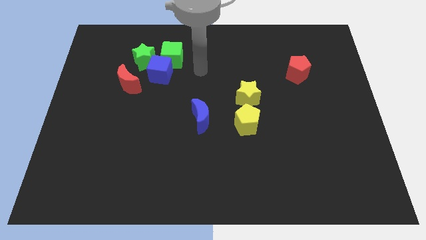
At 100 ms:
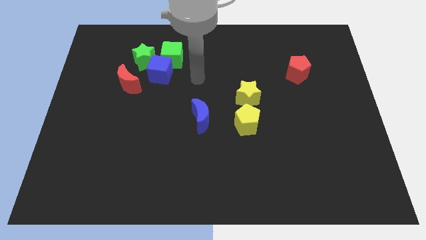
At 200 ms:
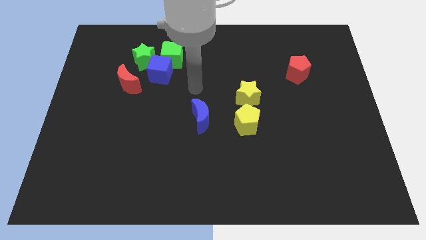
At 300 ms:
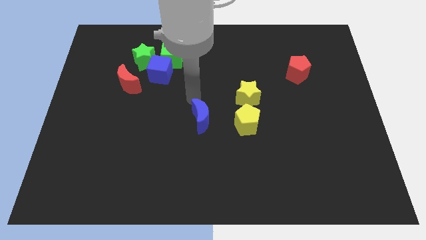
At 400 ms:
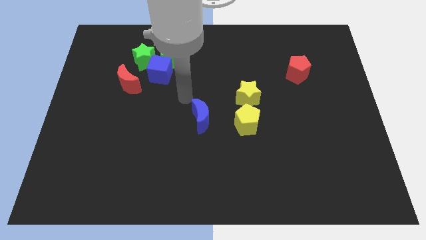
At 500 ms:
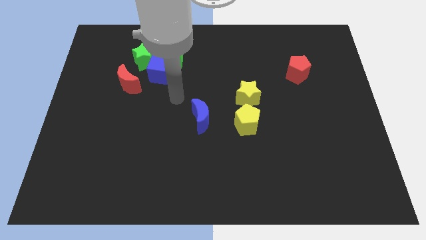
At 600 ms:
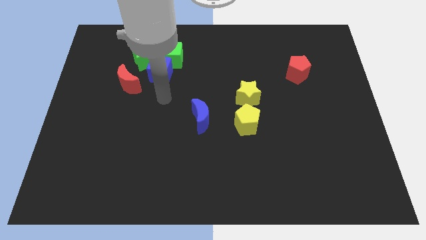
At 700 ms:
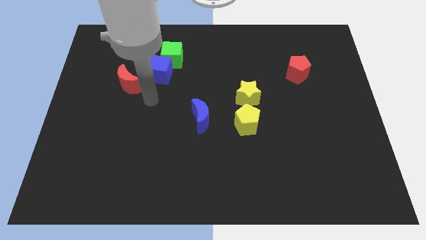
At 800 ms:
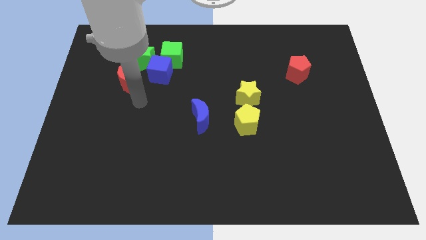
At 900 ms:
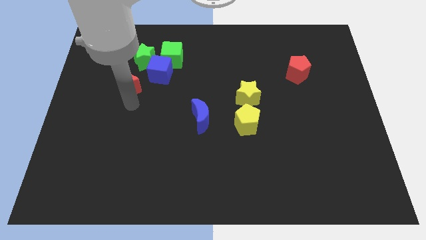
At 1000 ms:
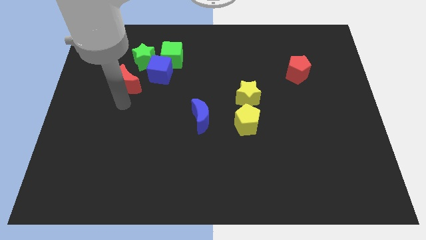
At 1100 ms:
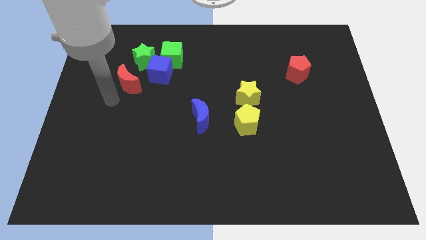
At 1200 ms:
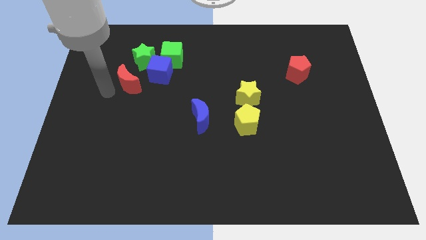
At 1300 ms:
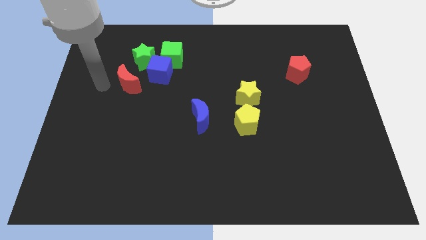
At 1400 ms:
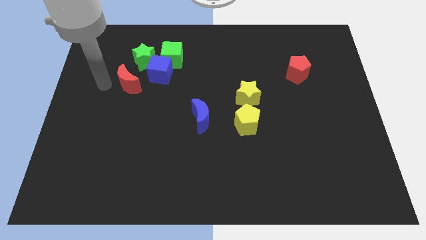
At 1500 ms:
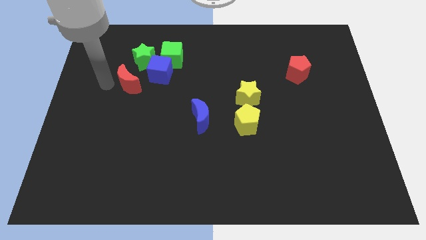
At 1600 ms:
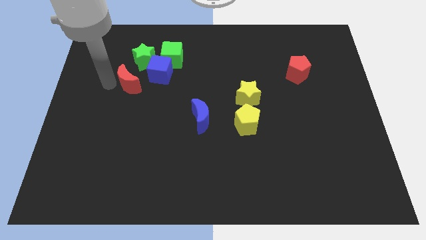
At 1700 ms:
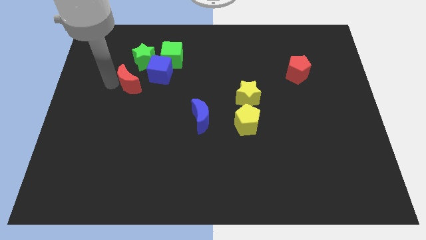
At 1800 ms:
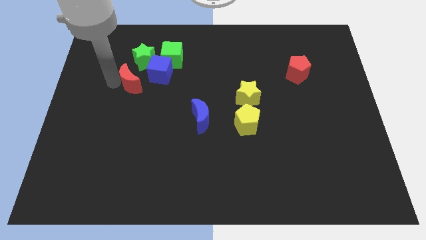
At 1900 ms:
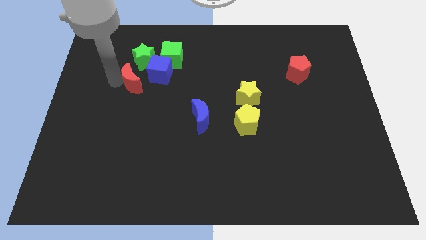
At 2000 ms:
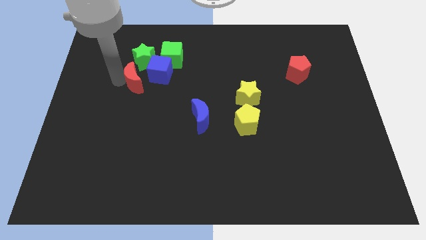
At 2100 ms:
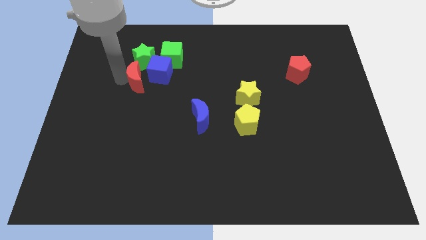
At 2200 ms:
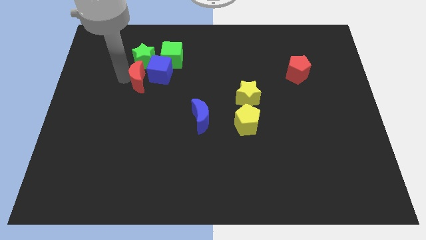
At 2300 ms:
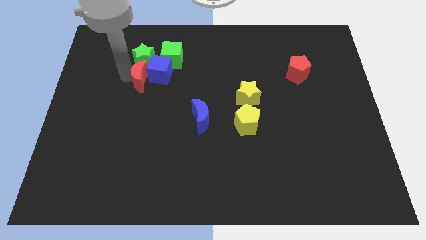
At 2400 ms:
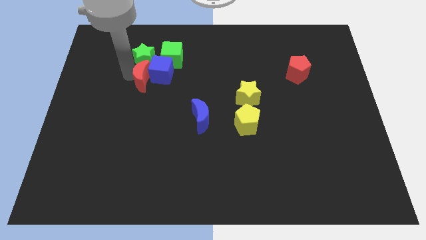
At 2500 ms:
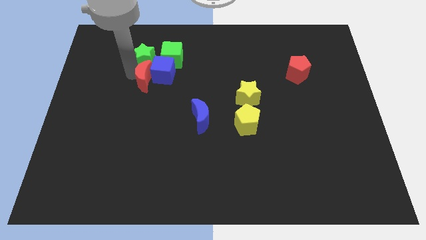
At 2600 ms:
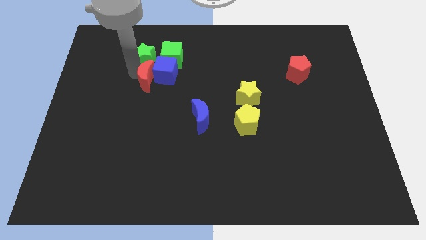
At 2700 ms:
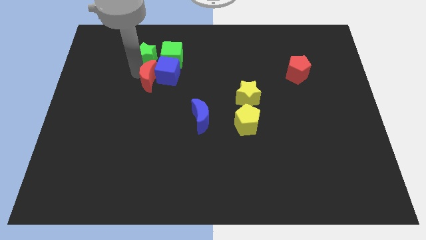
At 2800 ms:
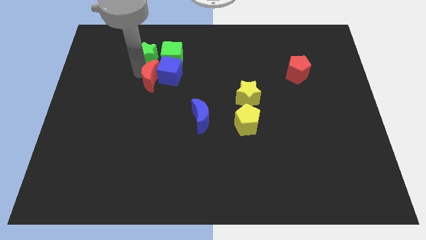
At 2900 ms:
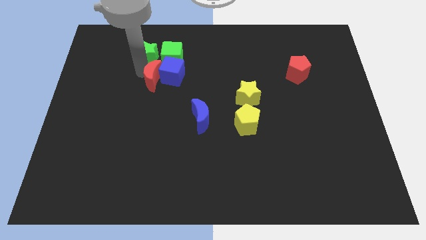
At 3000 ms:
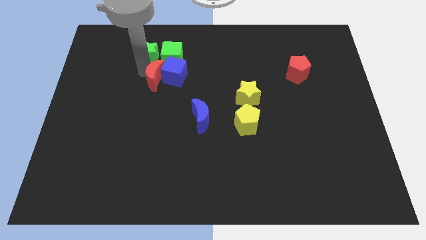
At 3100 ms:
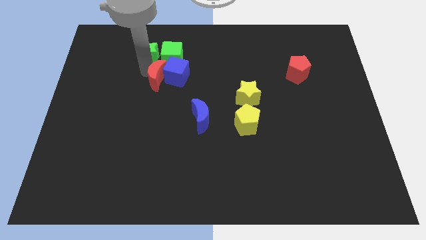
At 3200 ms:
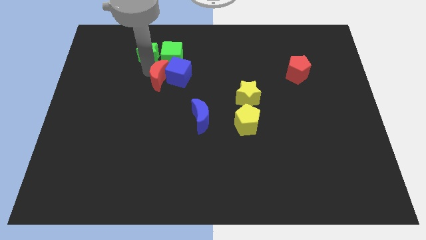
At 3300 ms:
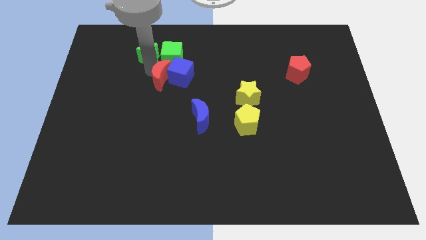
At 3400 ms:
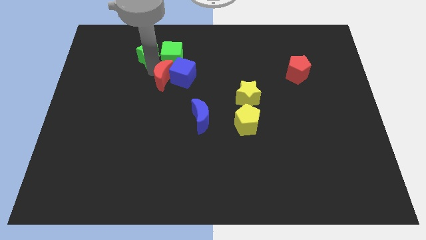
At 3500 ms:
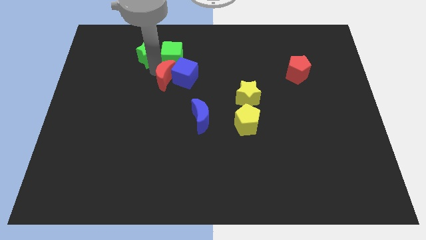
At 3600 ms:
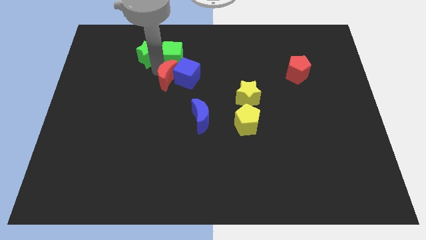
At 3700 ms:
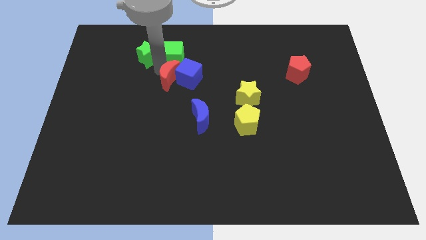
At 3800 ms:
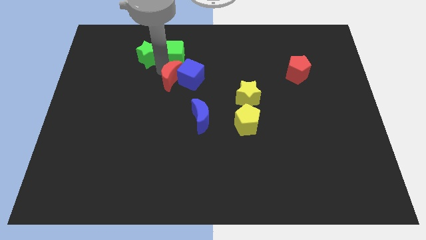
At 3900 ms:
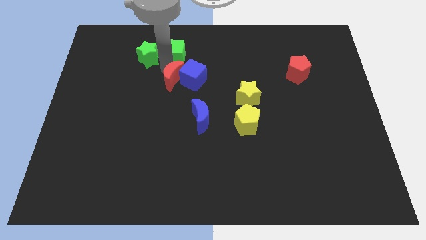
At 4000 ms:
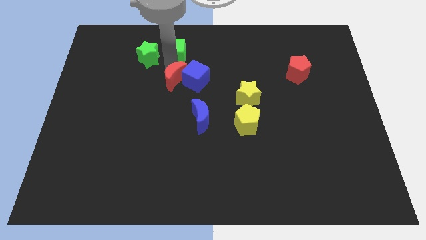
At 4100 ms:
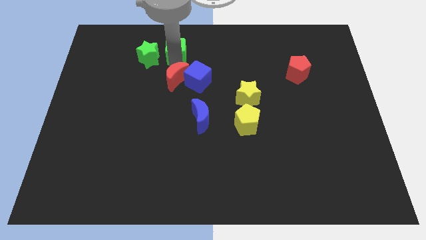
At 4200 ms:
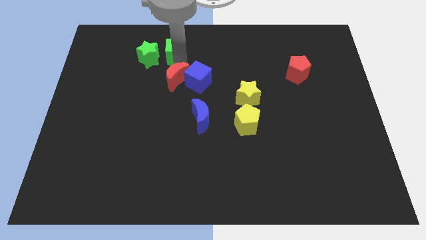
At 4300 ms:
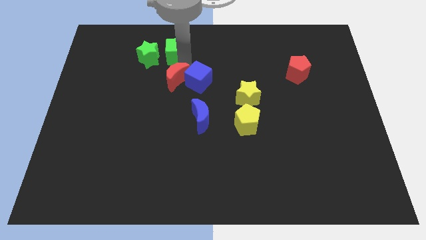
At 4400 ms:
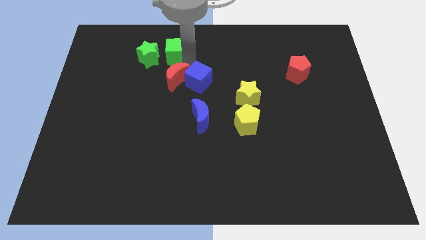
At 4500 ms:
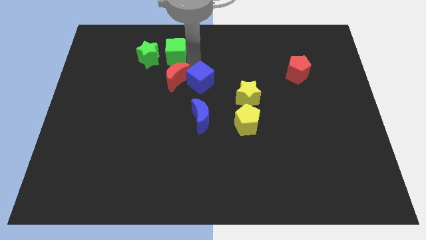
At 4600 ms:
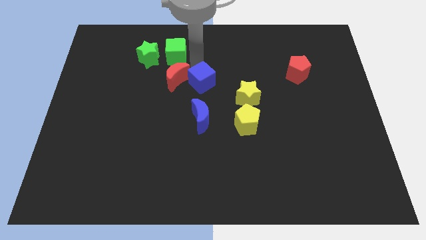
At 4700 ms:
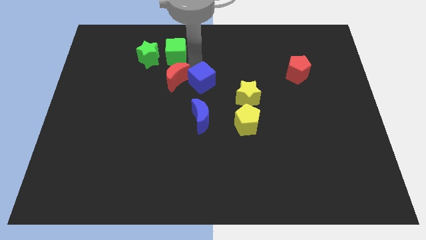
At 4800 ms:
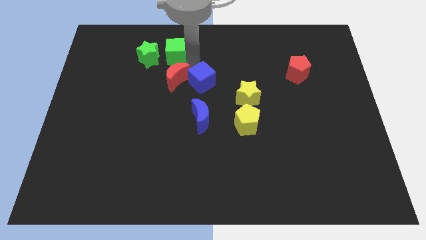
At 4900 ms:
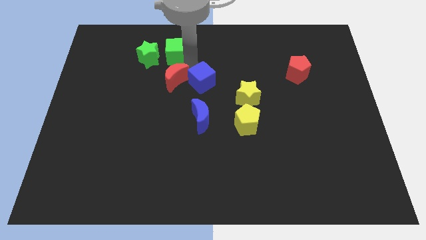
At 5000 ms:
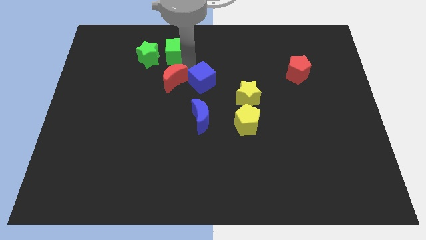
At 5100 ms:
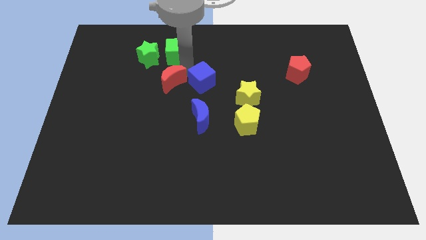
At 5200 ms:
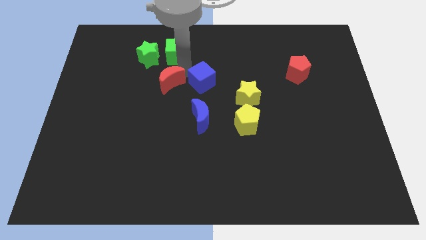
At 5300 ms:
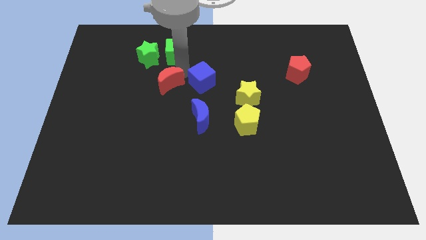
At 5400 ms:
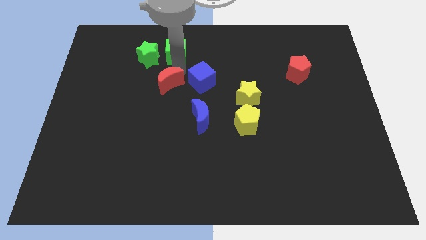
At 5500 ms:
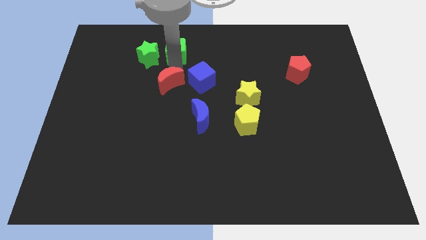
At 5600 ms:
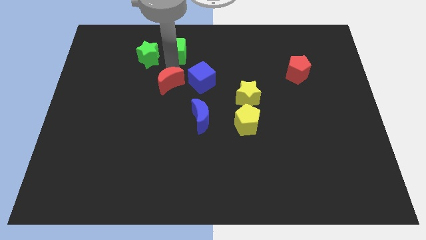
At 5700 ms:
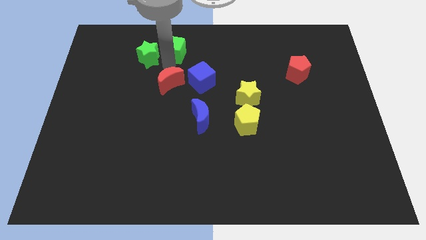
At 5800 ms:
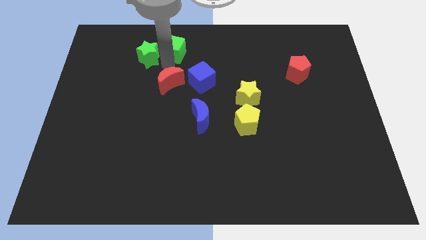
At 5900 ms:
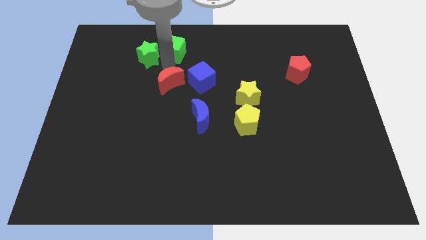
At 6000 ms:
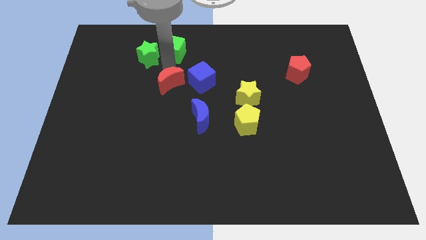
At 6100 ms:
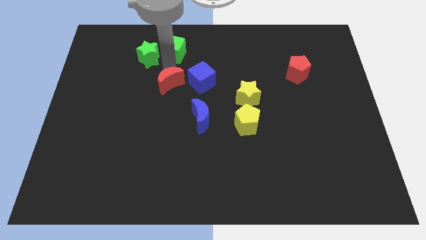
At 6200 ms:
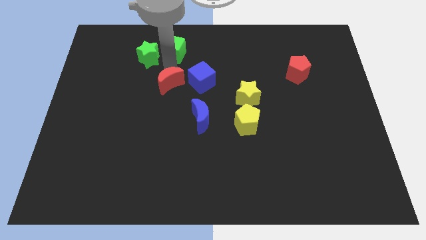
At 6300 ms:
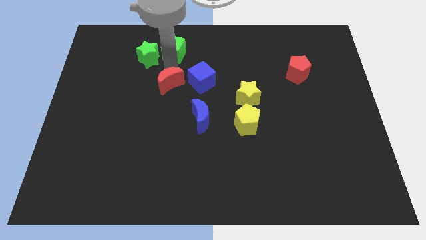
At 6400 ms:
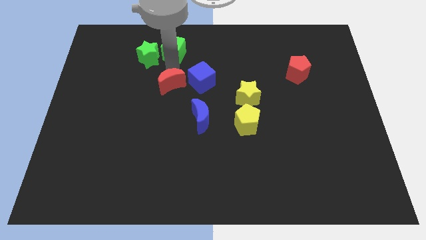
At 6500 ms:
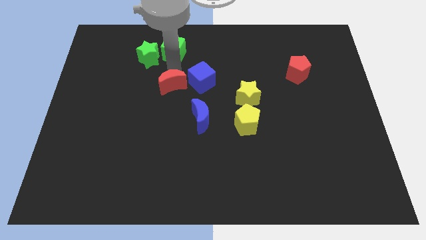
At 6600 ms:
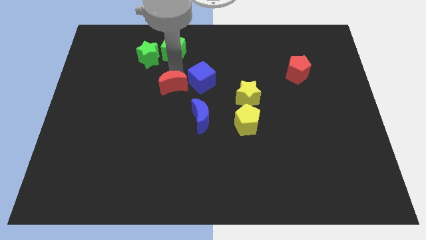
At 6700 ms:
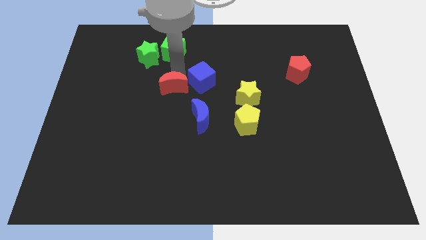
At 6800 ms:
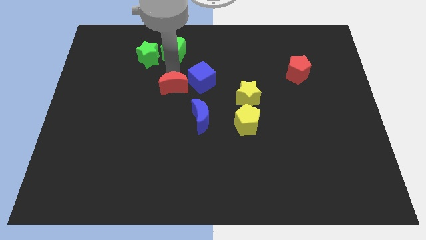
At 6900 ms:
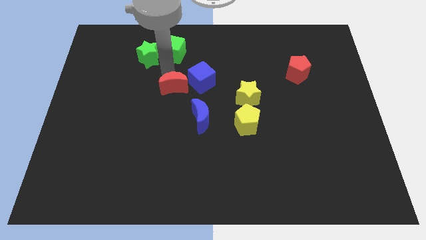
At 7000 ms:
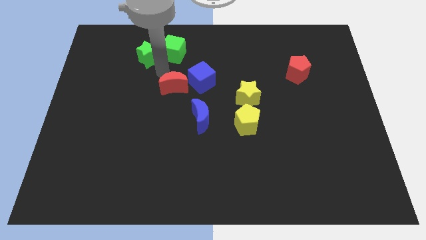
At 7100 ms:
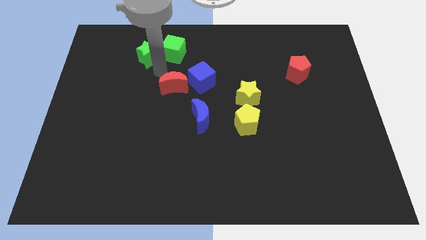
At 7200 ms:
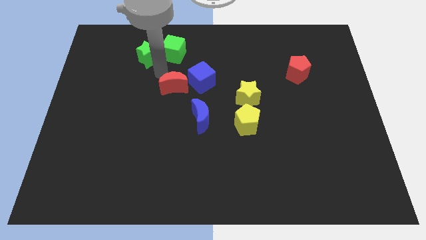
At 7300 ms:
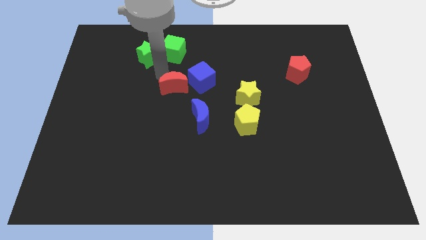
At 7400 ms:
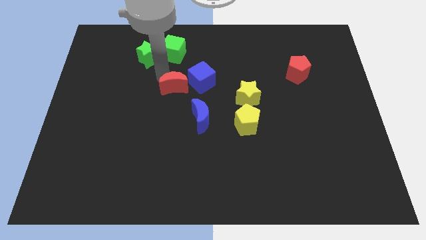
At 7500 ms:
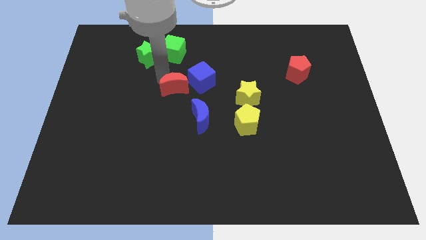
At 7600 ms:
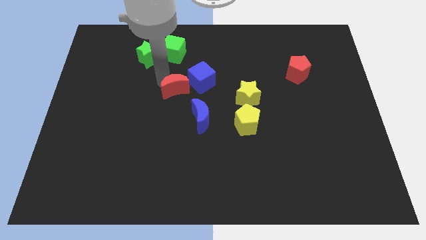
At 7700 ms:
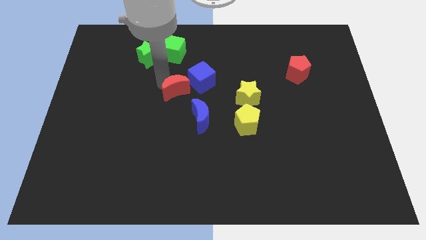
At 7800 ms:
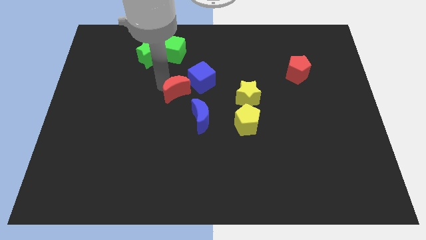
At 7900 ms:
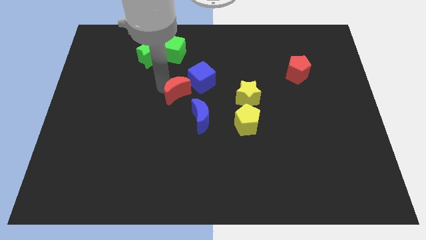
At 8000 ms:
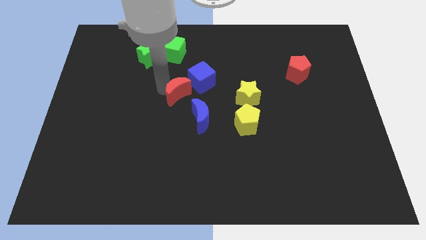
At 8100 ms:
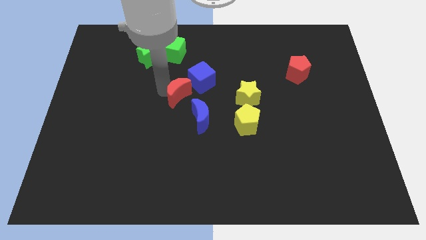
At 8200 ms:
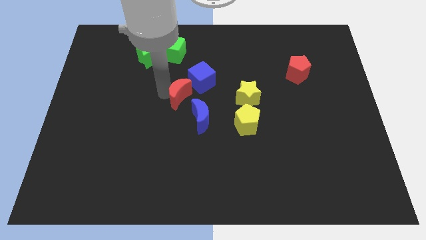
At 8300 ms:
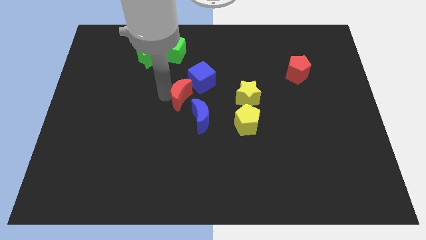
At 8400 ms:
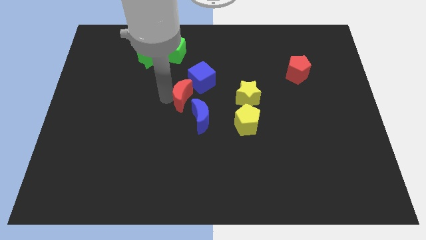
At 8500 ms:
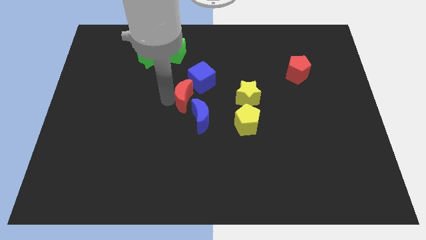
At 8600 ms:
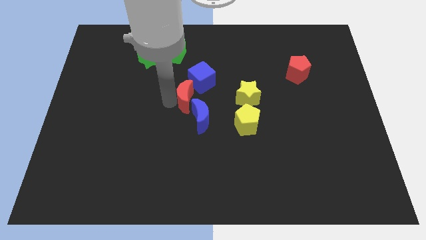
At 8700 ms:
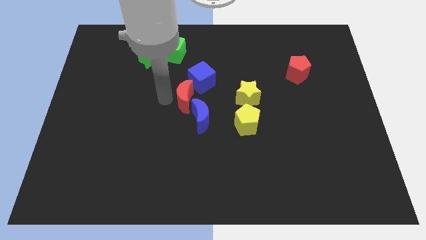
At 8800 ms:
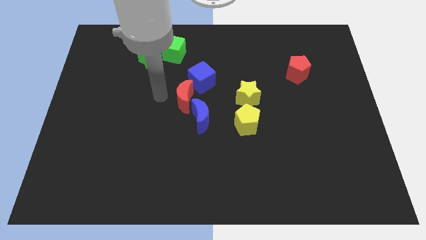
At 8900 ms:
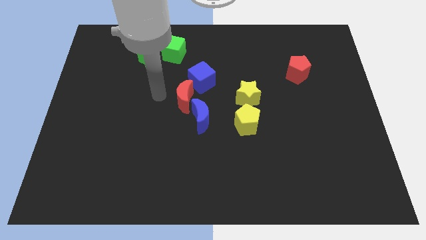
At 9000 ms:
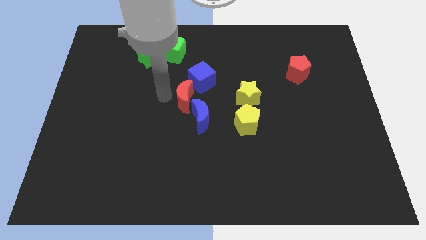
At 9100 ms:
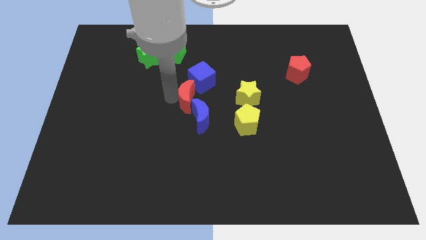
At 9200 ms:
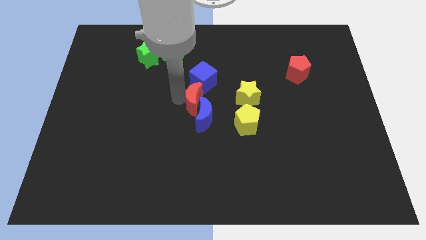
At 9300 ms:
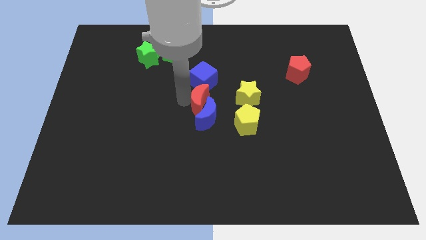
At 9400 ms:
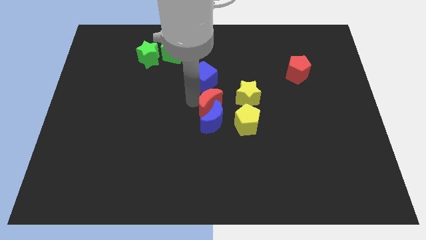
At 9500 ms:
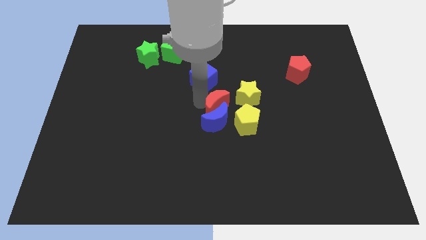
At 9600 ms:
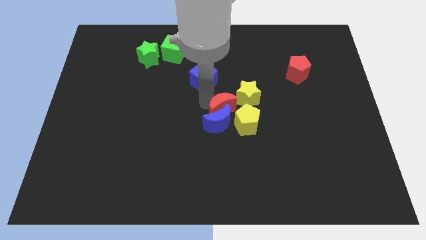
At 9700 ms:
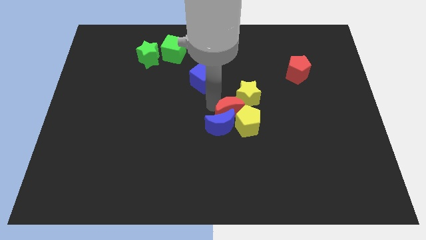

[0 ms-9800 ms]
slide the red moon next to the yellow pentagon
